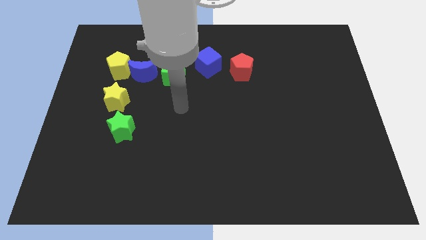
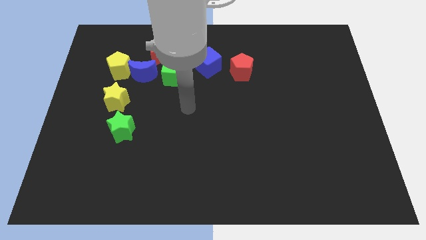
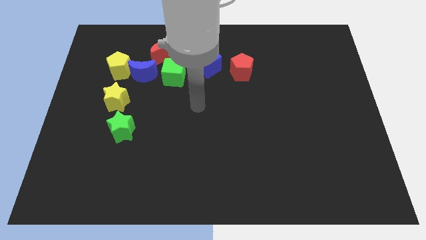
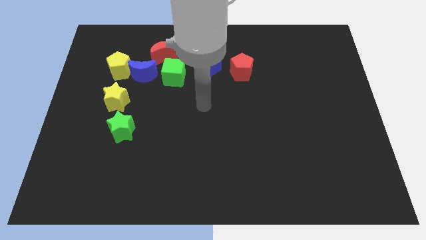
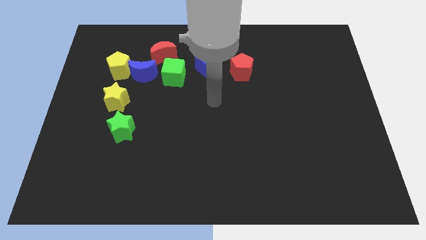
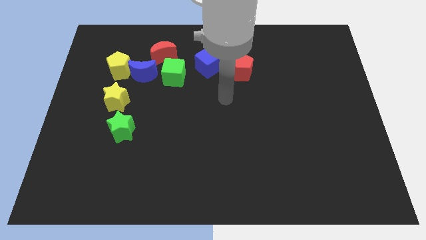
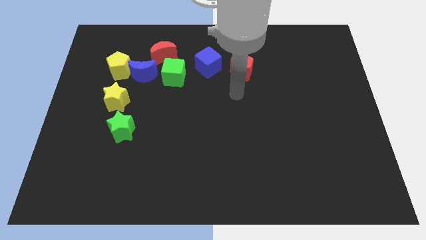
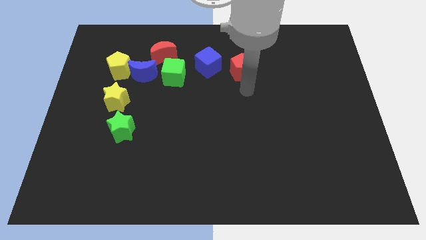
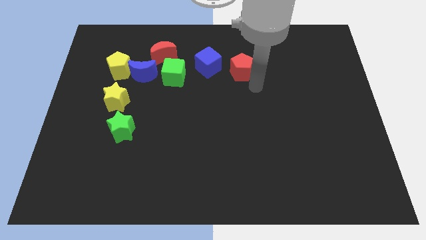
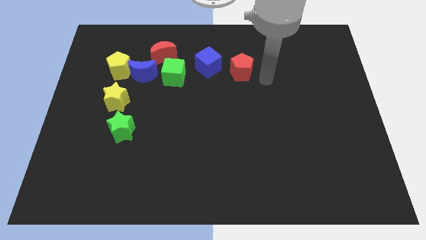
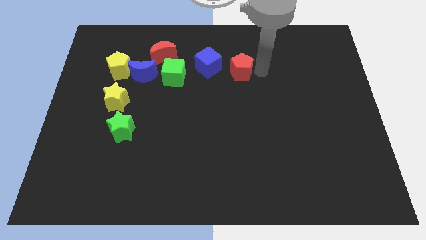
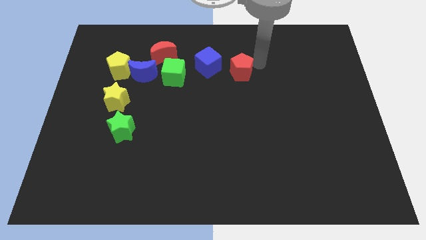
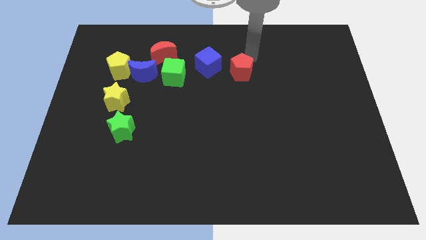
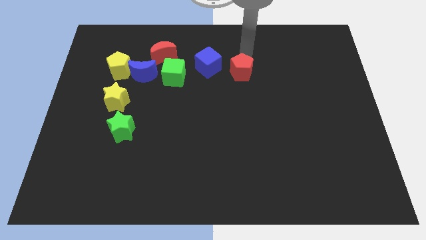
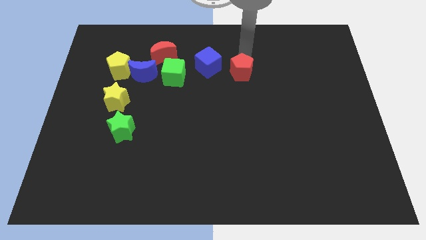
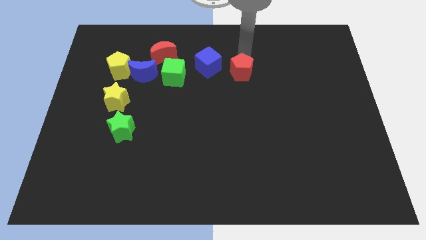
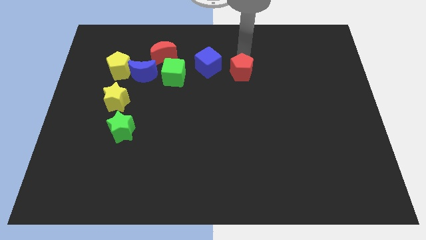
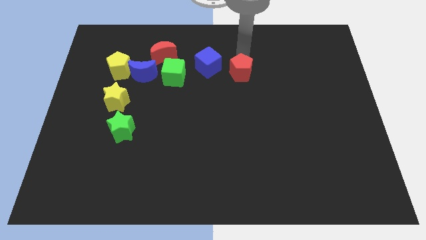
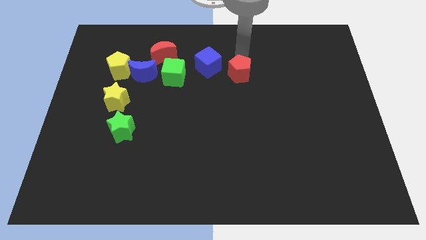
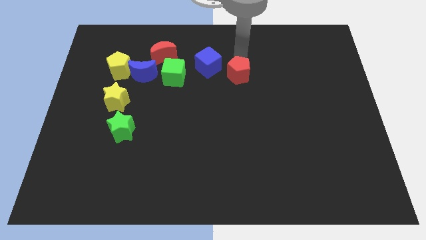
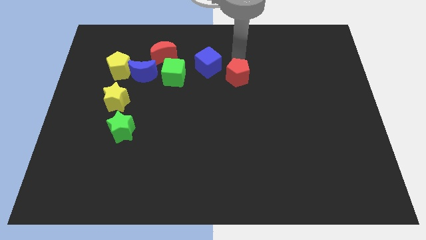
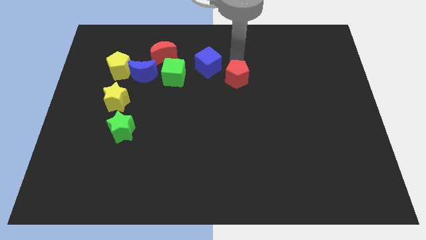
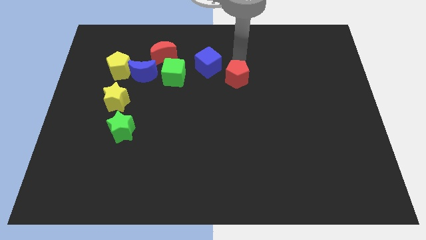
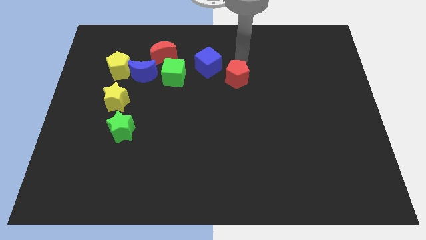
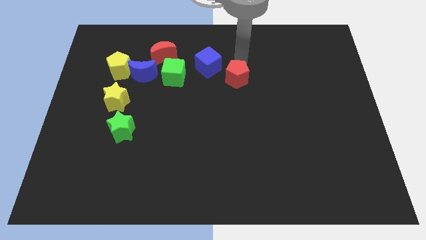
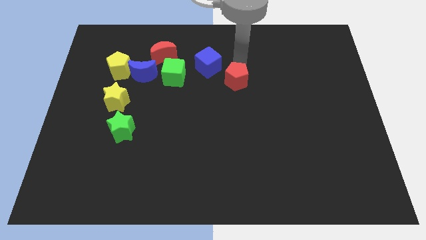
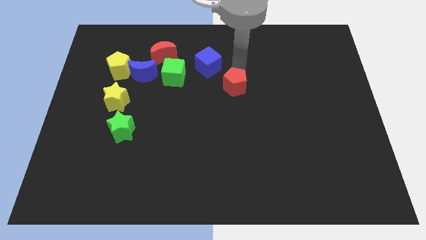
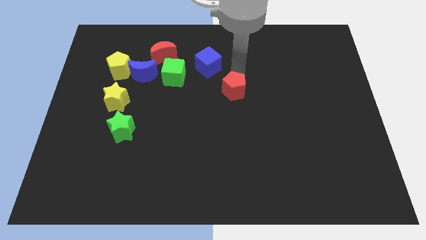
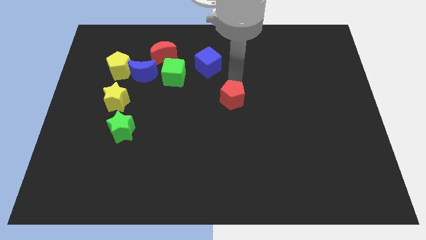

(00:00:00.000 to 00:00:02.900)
slide the red pentagon down slightly

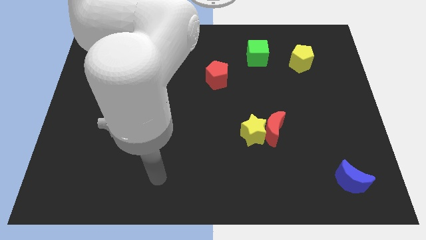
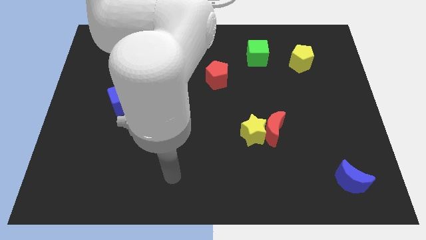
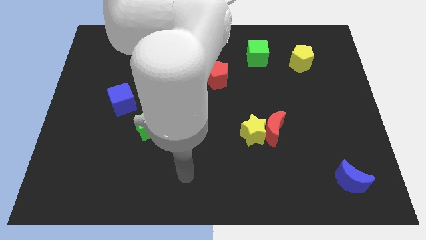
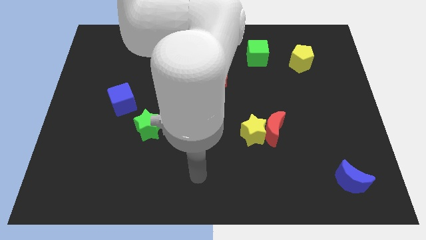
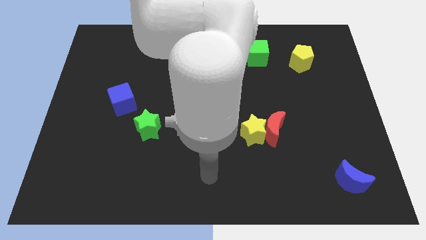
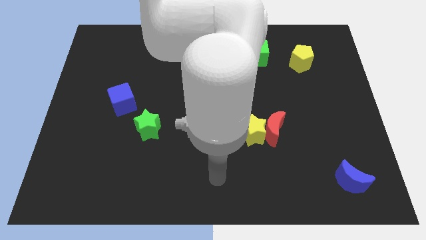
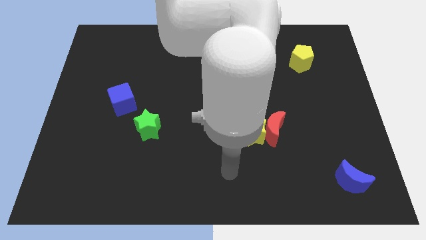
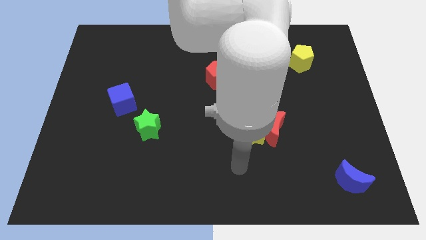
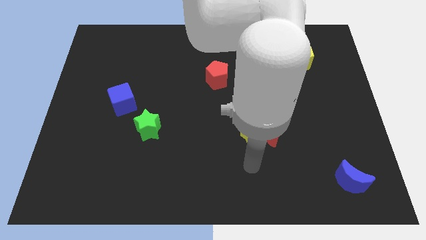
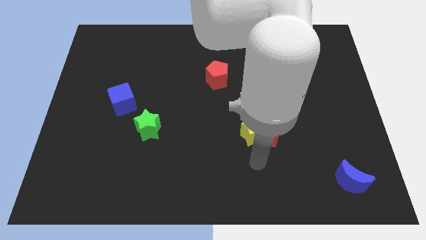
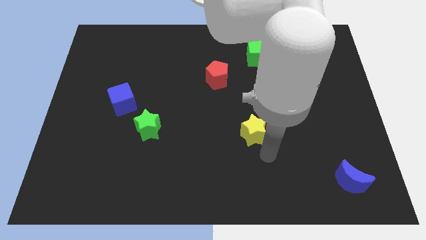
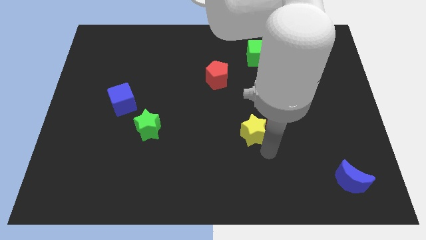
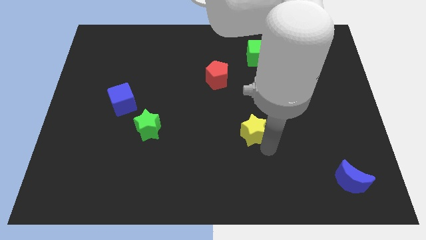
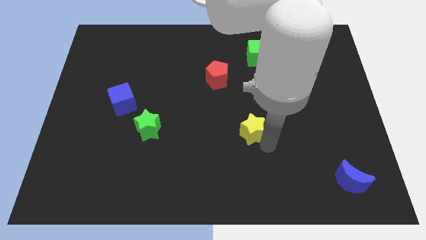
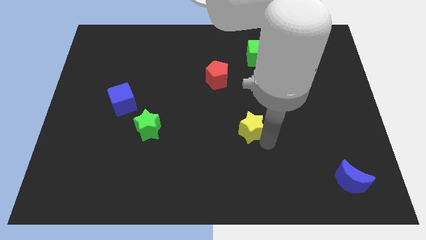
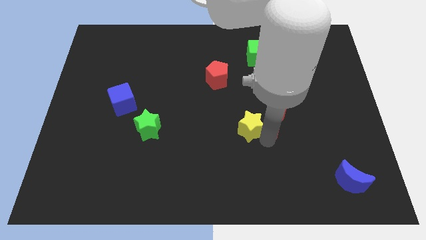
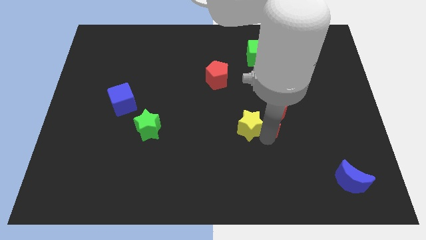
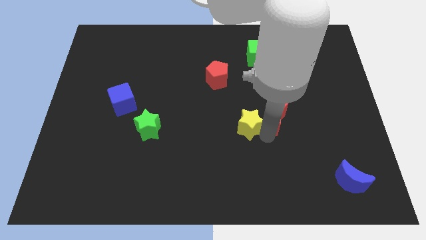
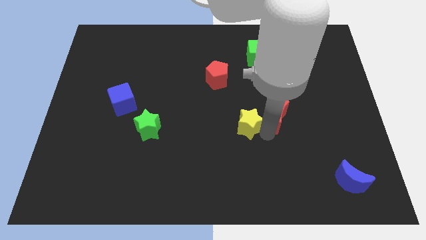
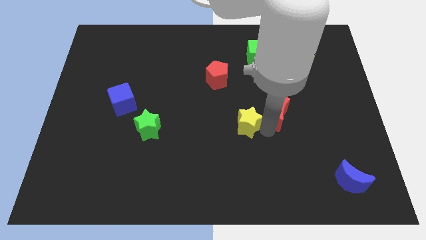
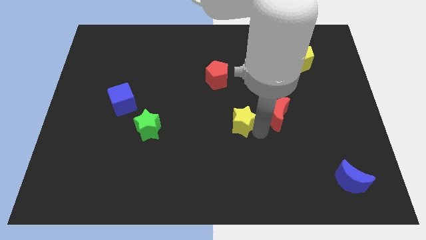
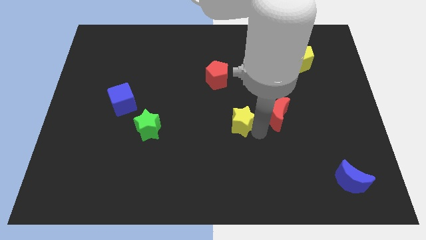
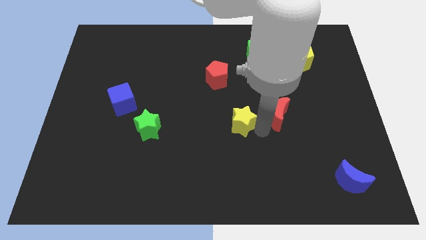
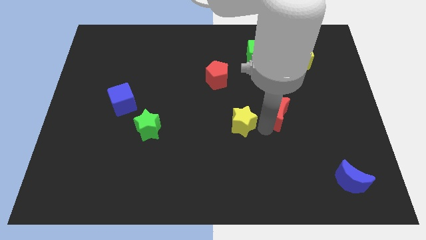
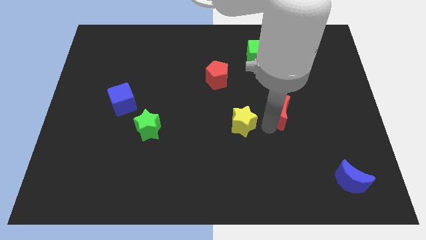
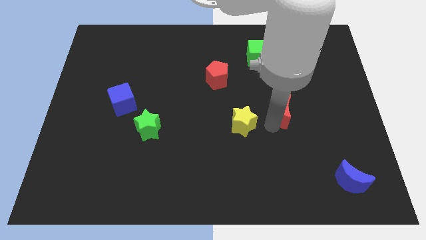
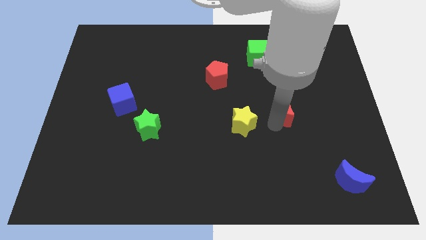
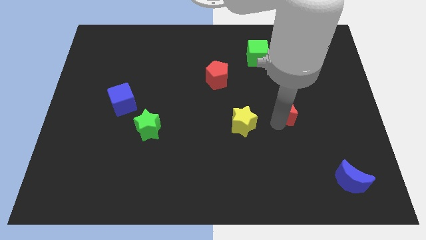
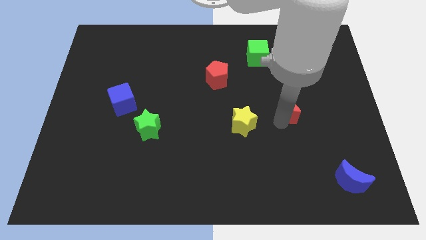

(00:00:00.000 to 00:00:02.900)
slide the red moon up and then right a little bit

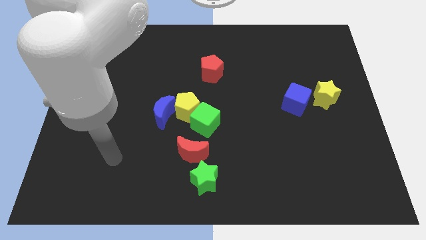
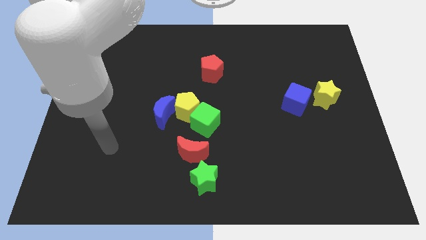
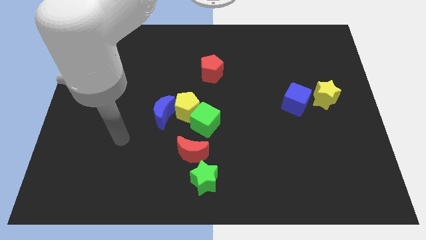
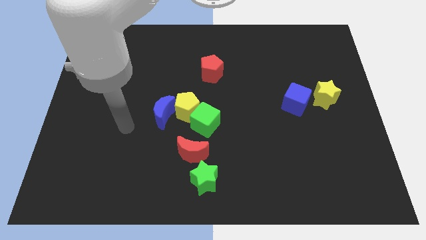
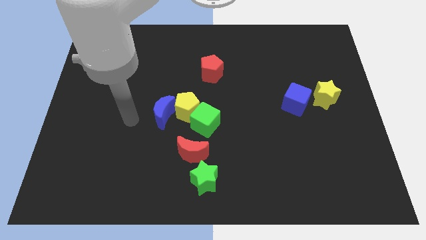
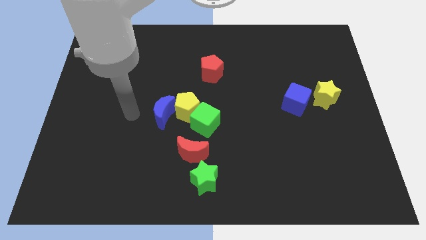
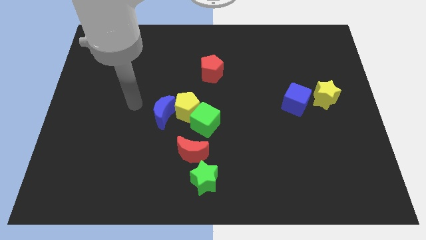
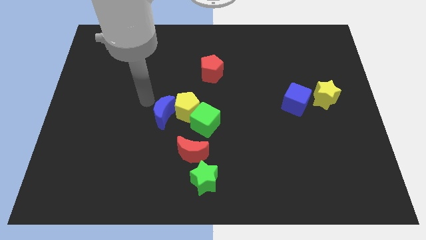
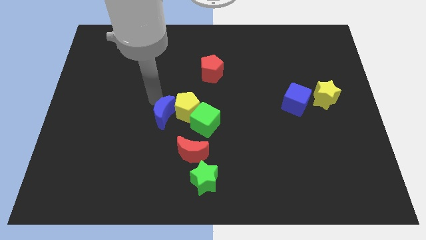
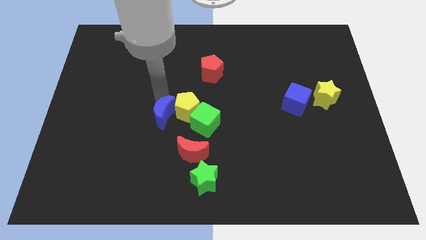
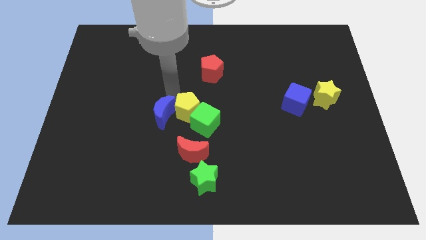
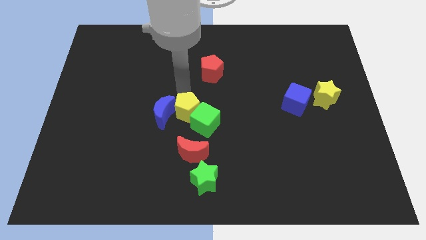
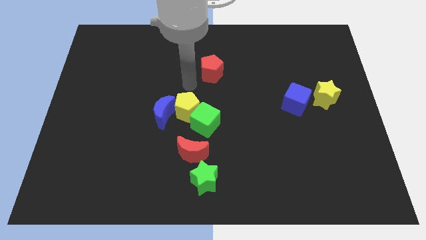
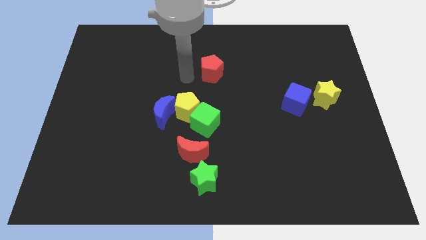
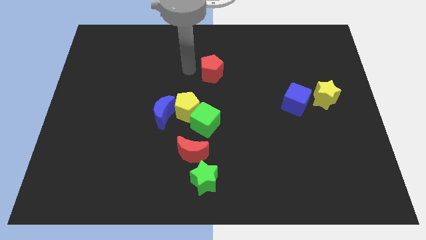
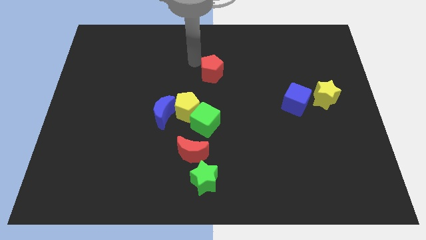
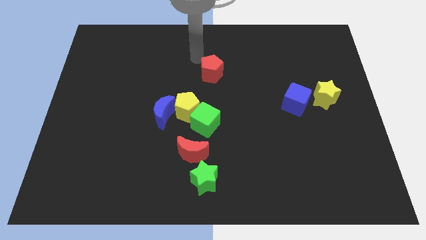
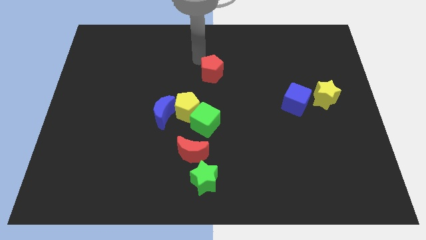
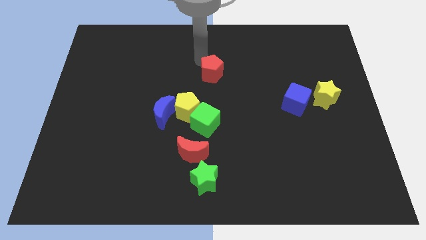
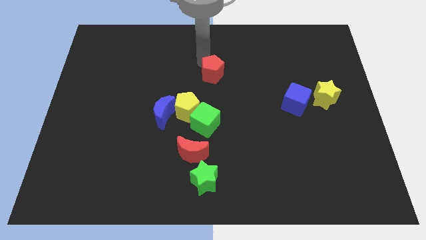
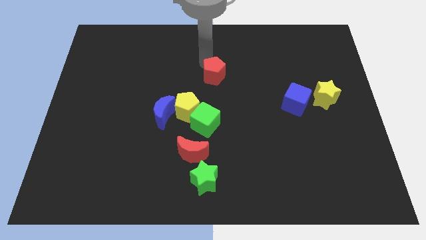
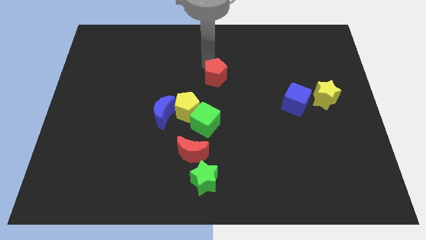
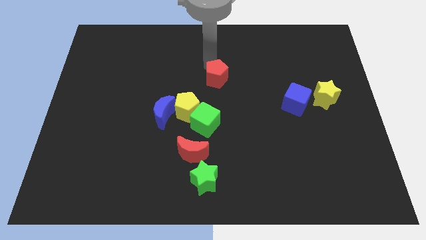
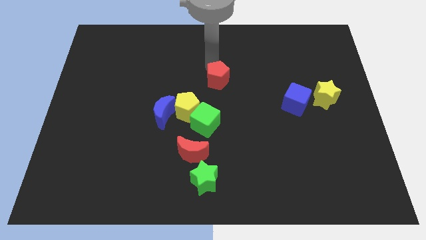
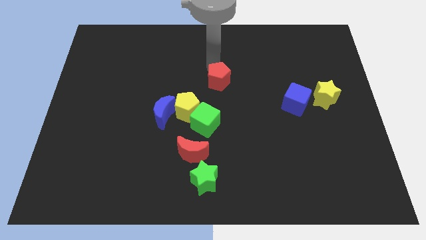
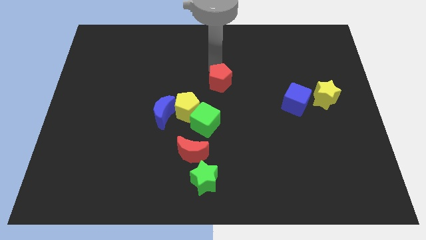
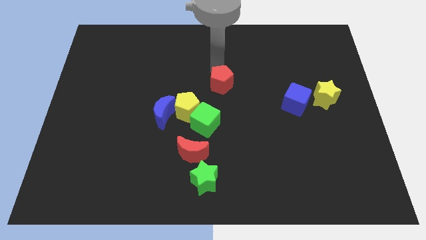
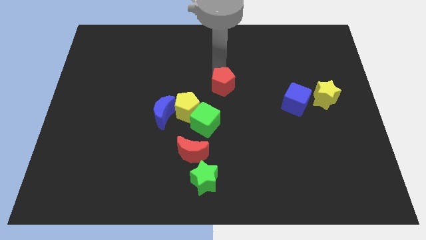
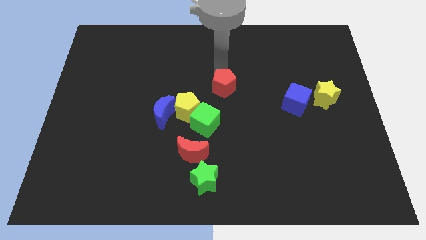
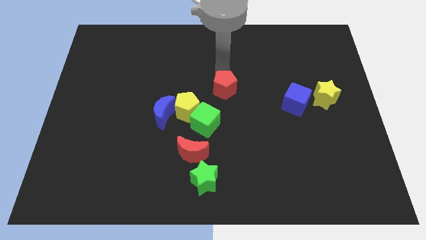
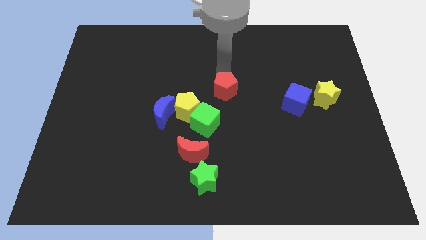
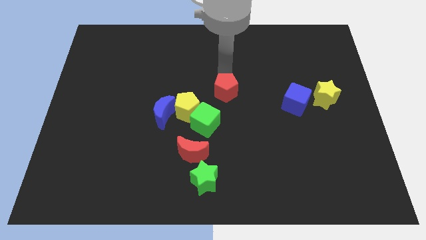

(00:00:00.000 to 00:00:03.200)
push the red pentagon a little bit diagonally down and right
